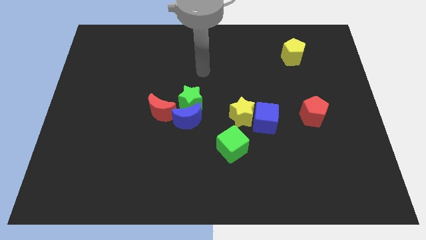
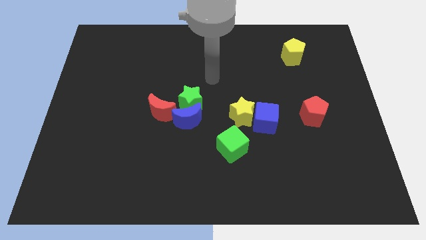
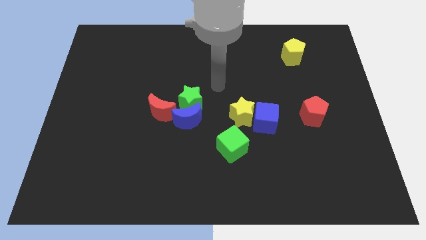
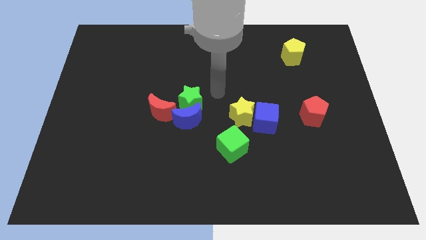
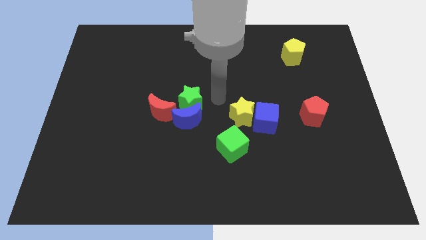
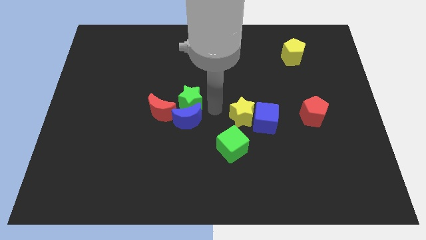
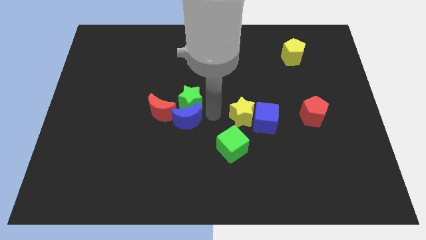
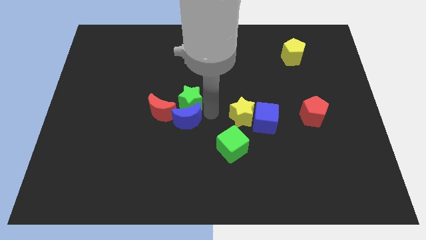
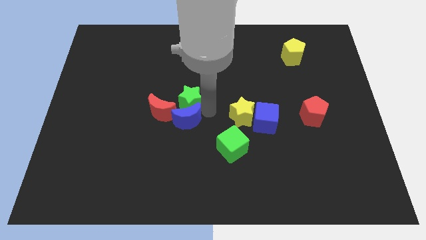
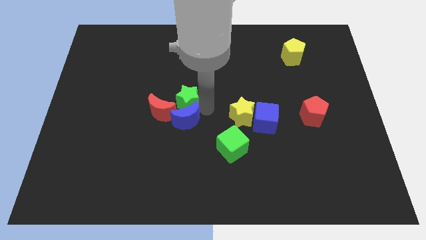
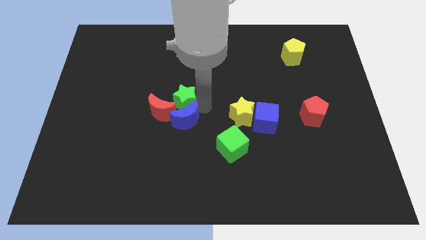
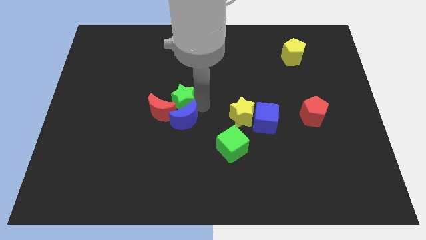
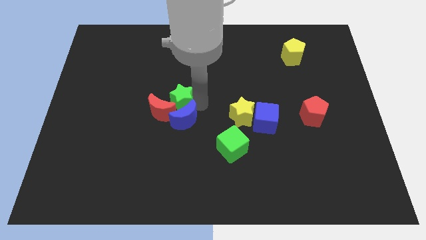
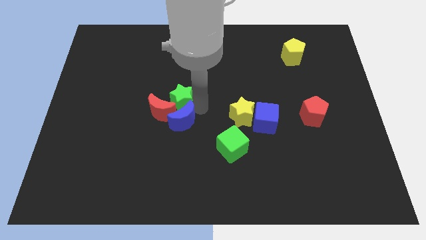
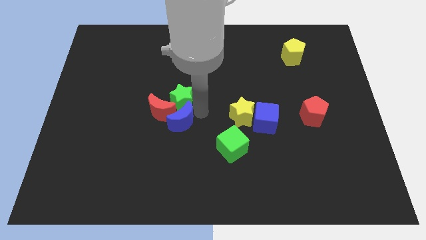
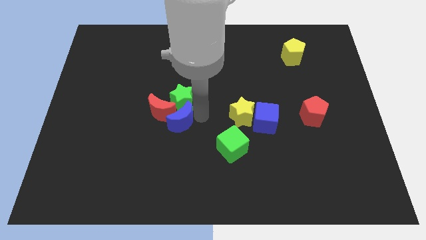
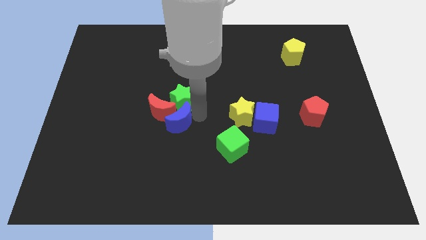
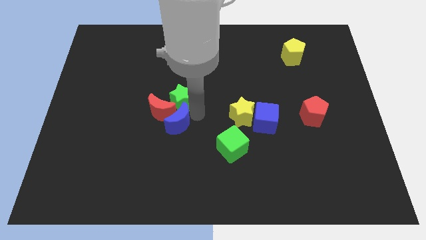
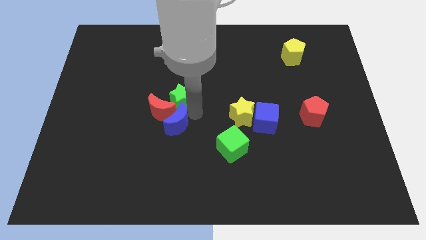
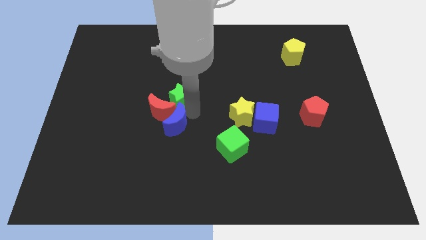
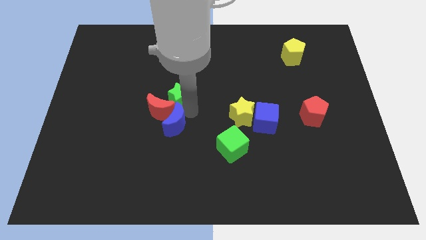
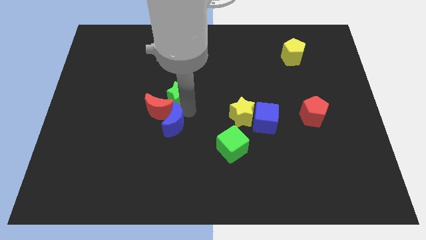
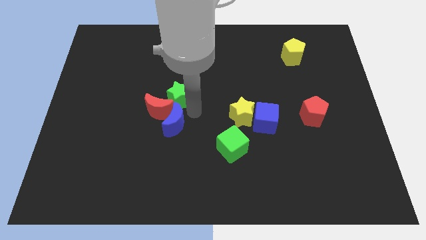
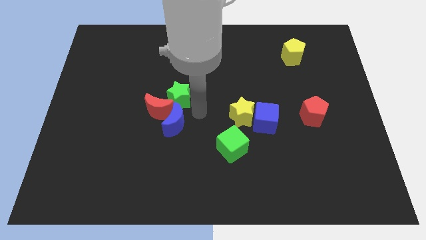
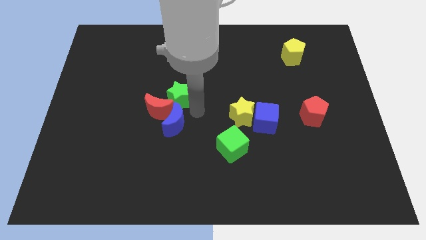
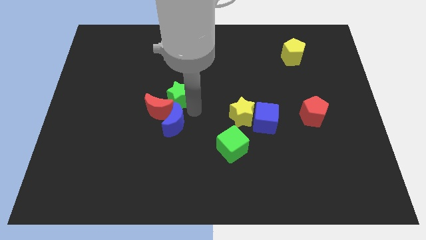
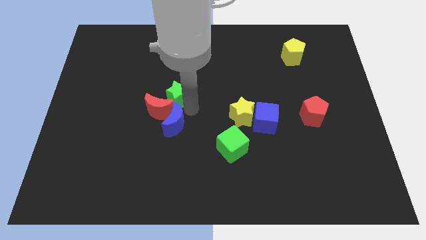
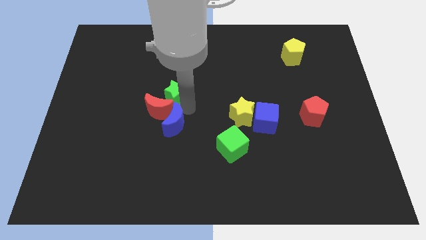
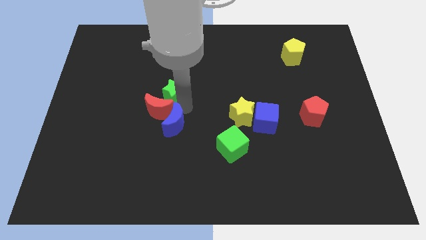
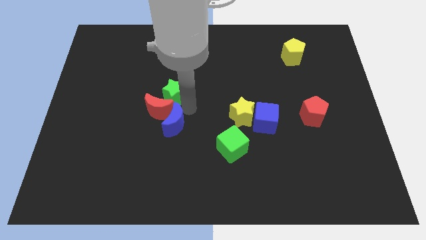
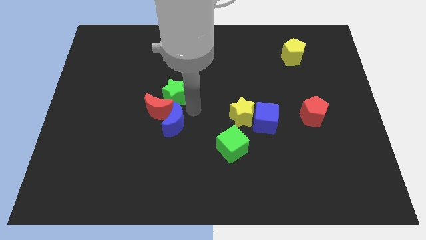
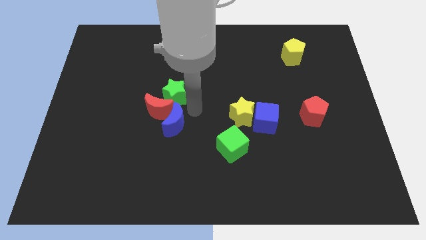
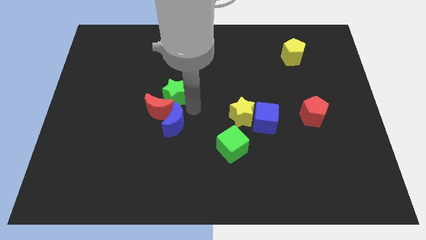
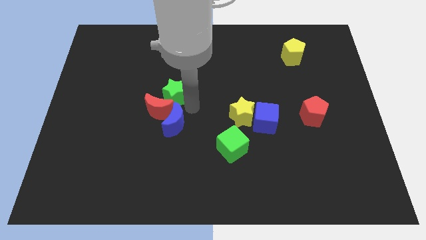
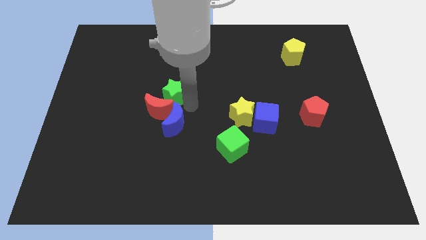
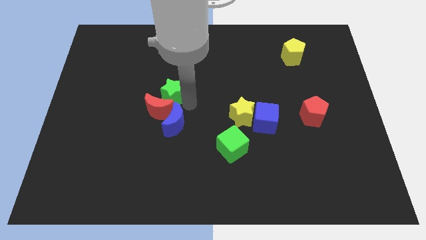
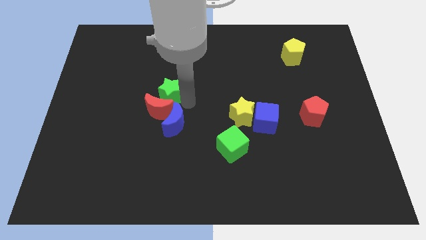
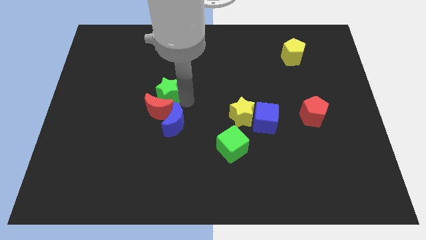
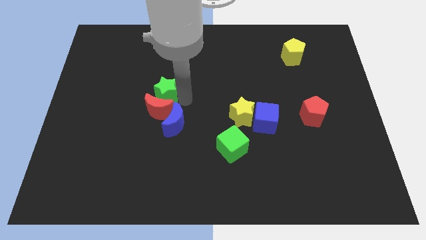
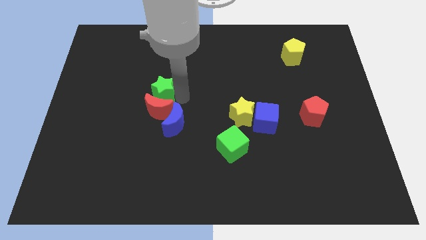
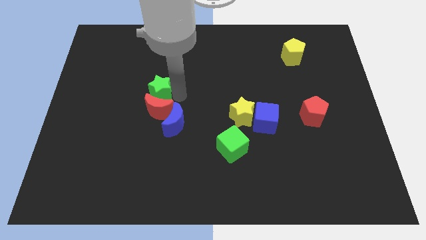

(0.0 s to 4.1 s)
slide the green star upwards and left diagonally a little

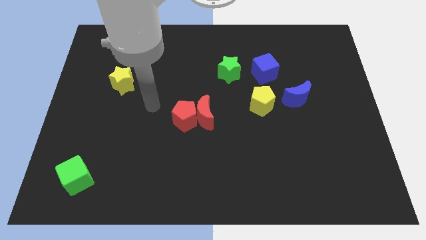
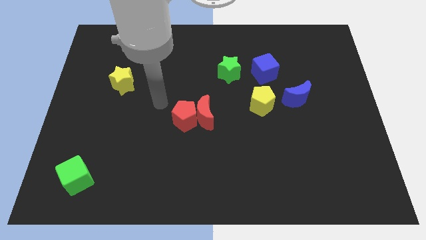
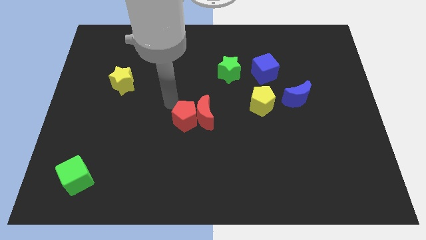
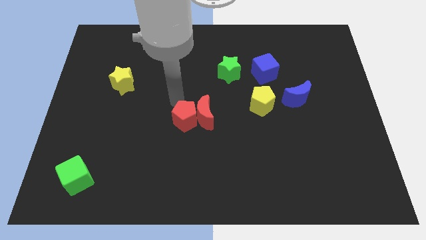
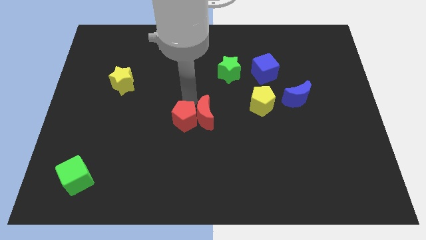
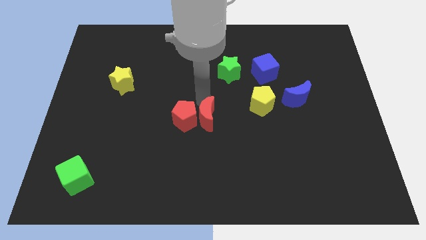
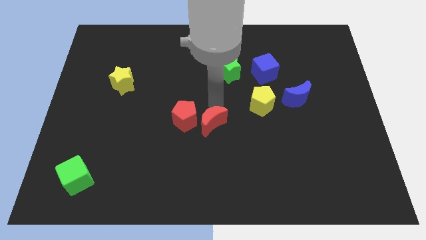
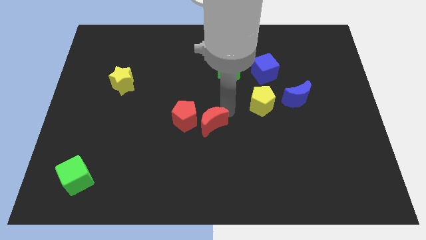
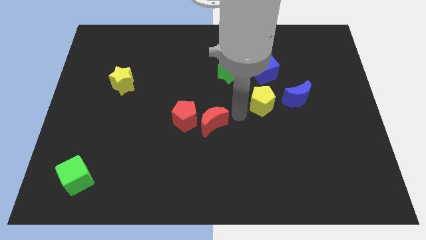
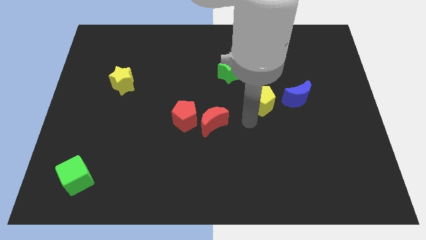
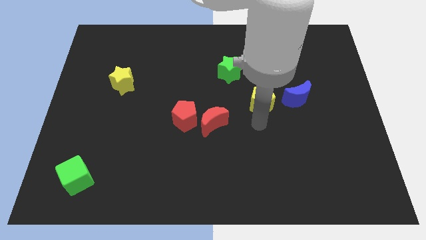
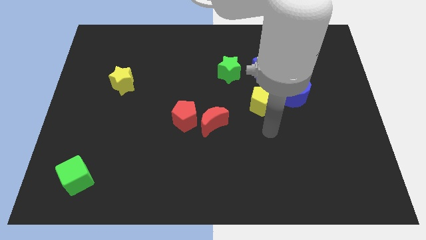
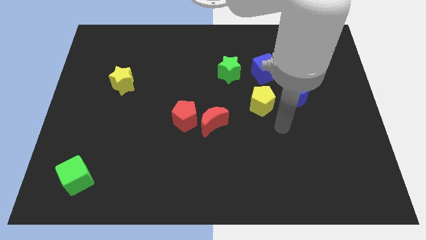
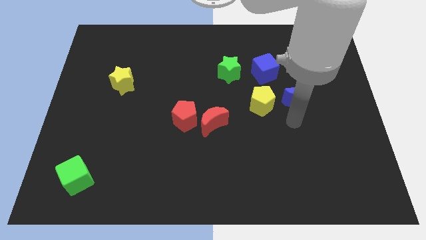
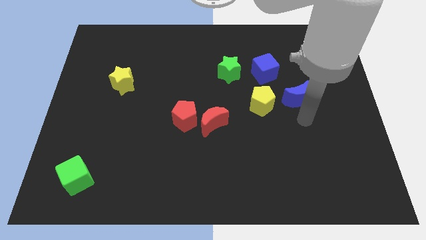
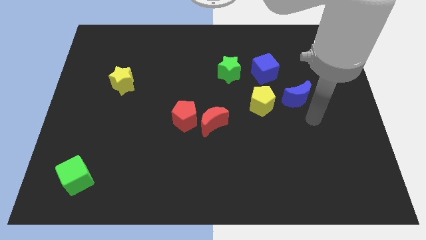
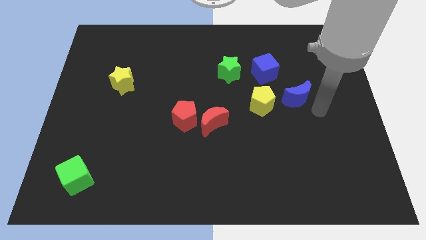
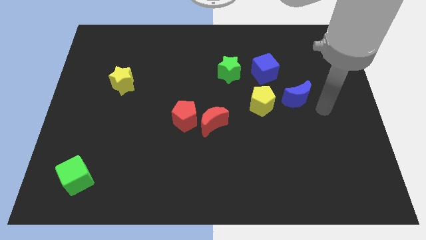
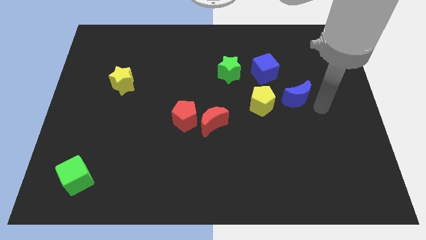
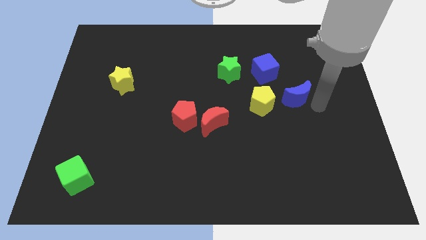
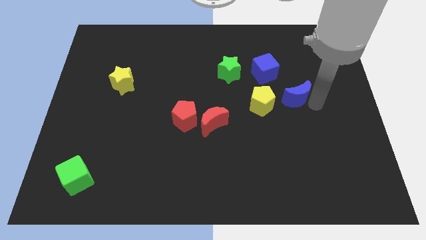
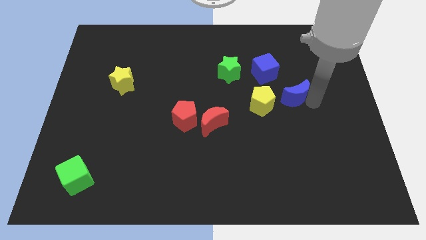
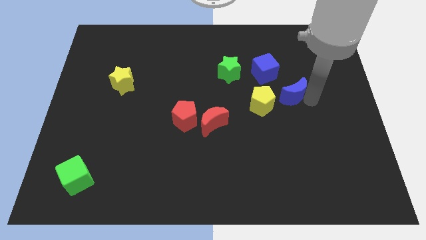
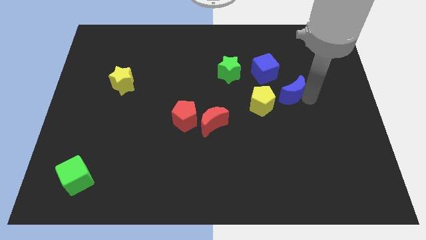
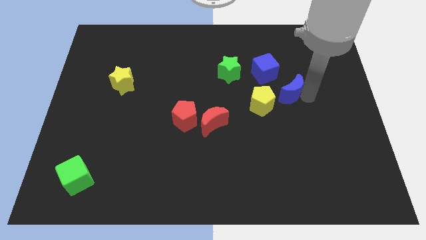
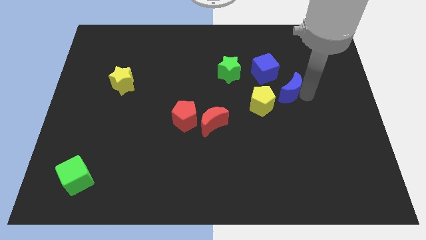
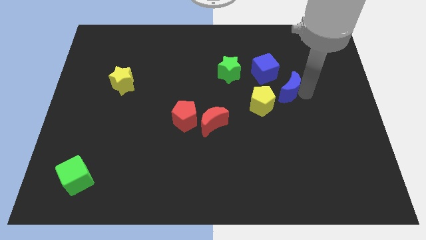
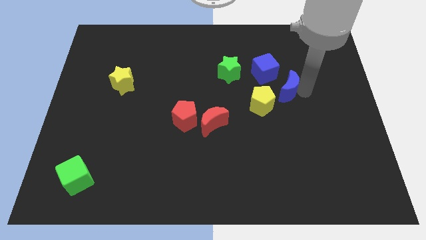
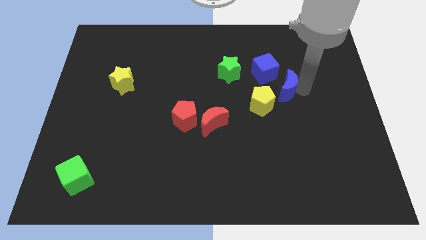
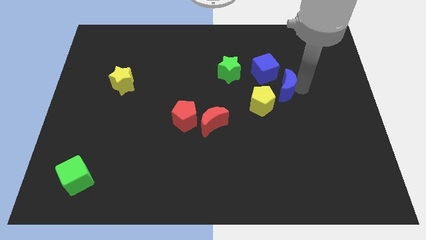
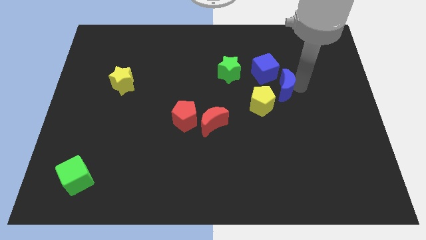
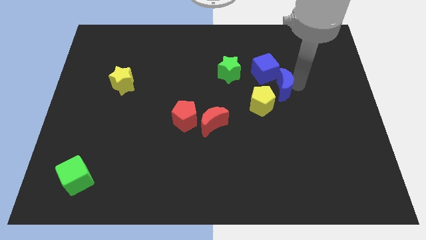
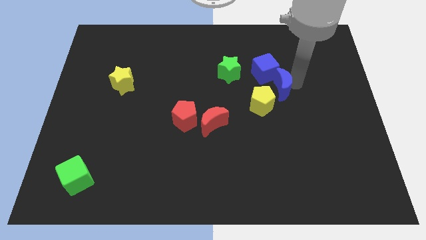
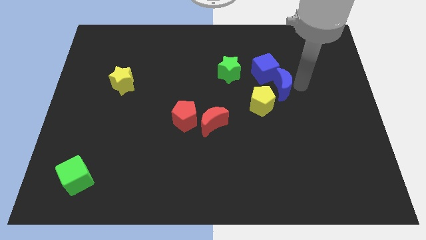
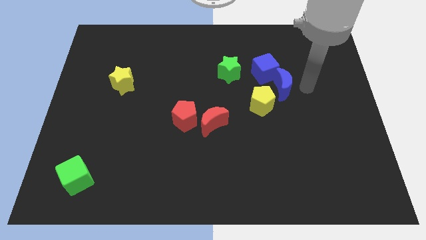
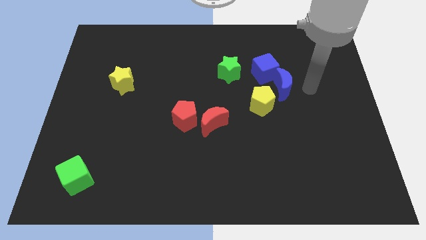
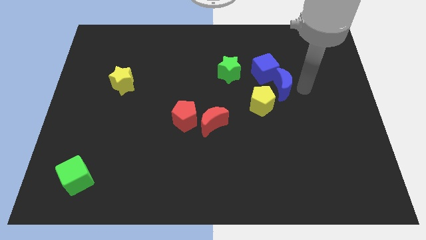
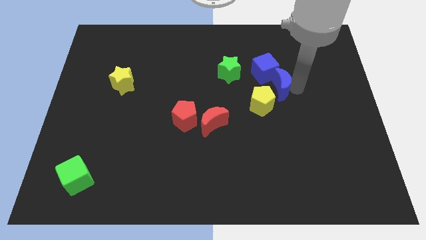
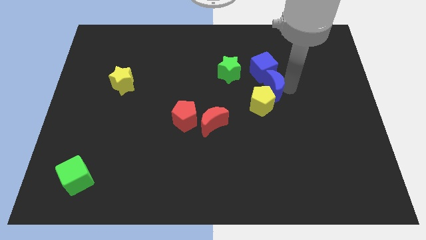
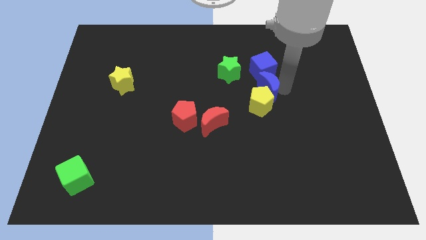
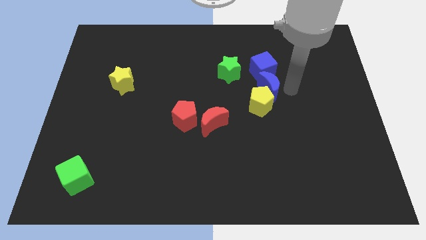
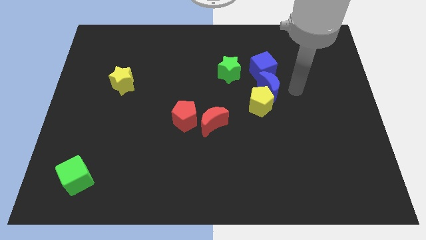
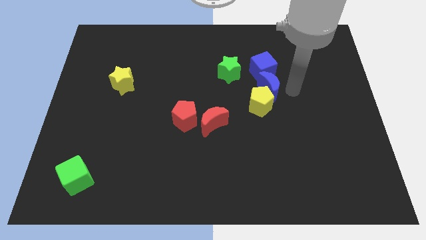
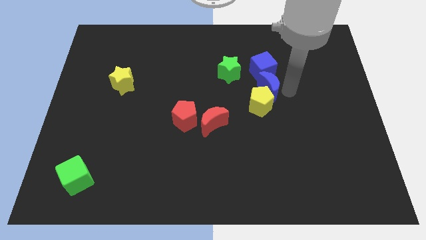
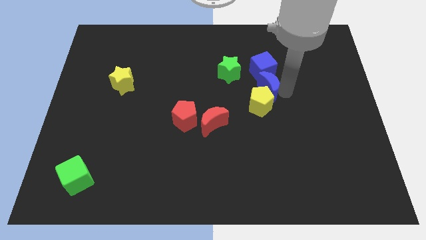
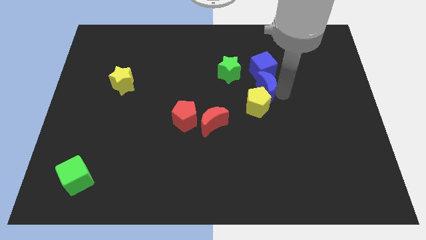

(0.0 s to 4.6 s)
move the blue moon to the left slightly

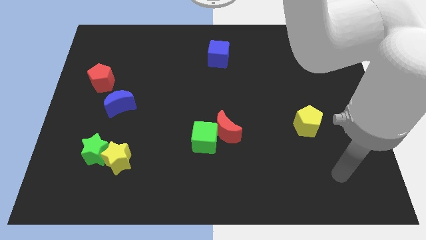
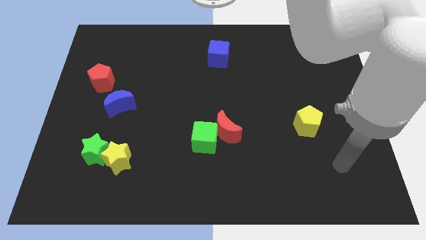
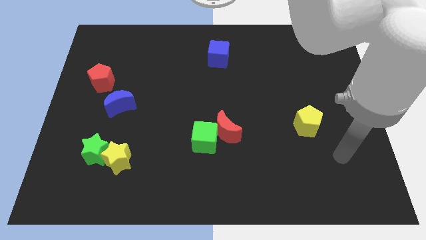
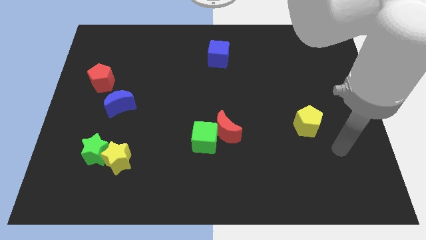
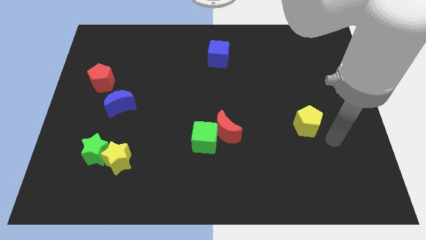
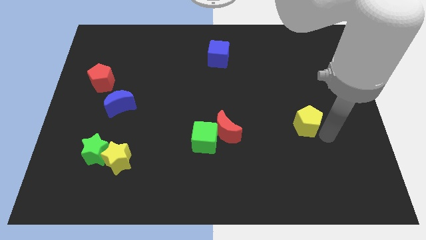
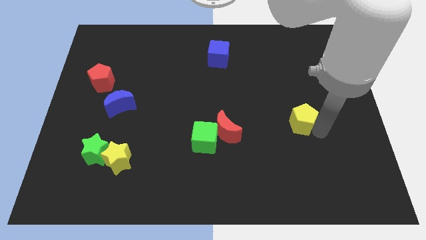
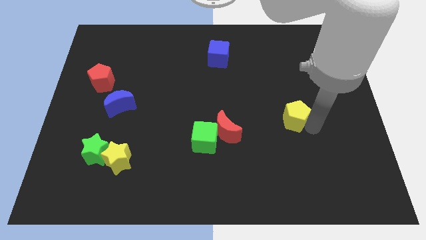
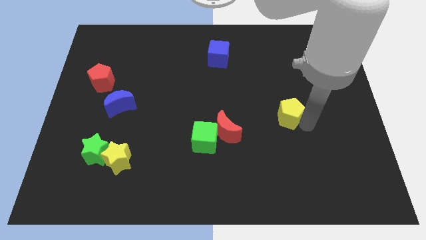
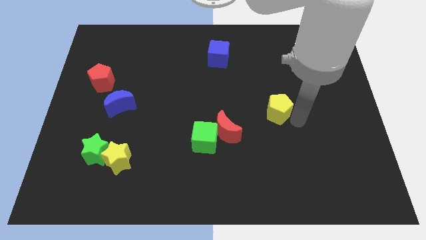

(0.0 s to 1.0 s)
push the yellow pentagon upwards and left diagonally somewhat
